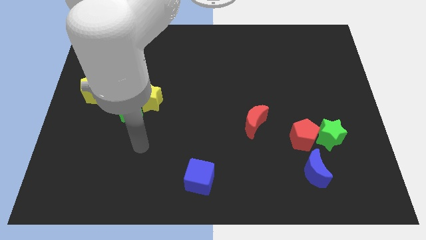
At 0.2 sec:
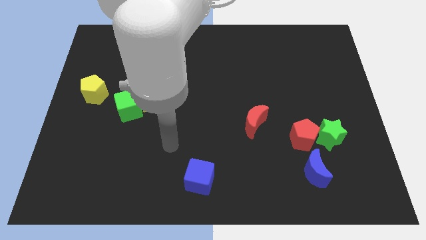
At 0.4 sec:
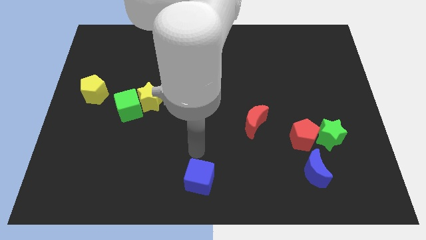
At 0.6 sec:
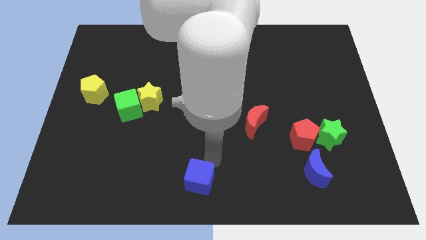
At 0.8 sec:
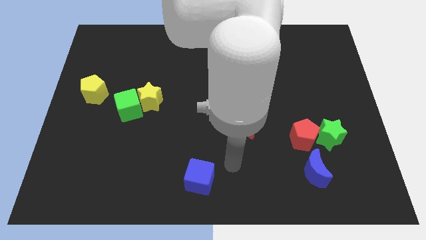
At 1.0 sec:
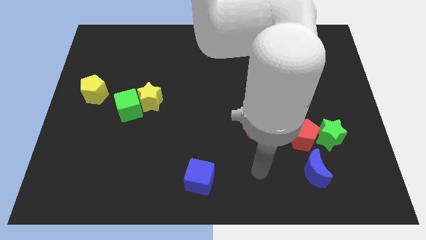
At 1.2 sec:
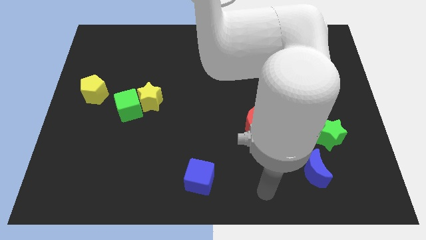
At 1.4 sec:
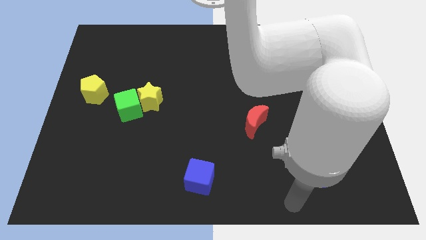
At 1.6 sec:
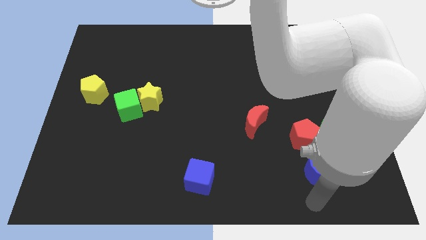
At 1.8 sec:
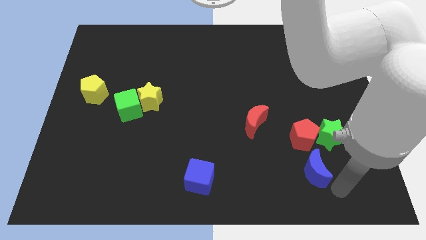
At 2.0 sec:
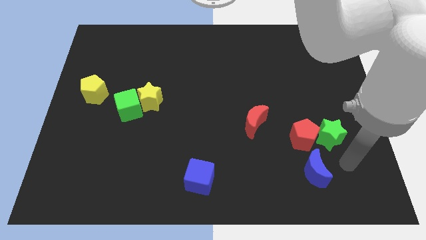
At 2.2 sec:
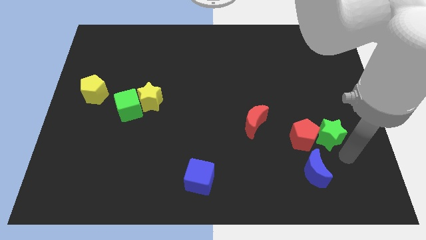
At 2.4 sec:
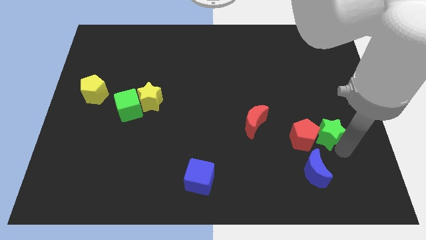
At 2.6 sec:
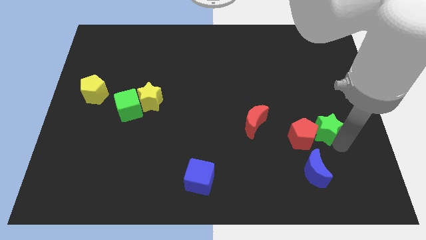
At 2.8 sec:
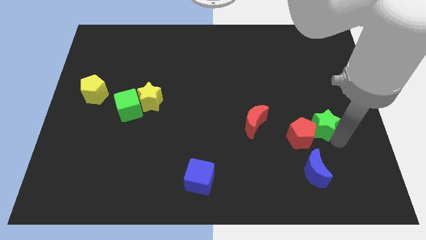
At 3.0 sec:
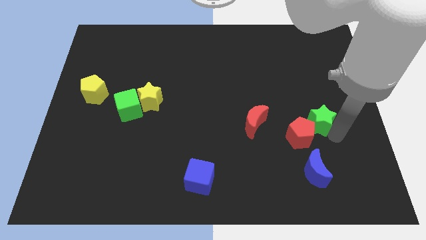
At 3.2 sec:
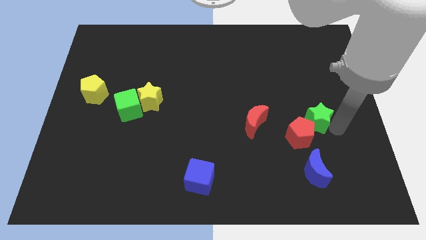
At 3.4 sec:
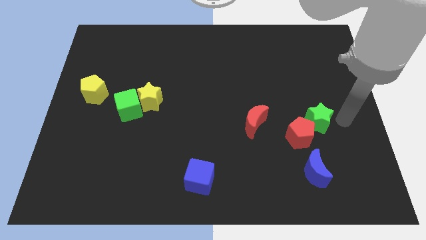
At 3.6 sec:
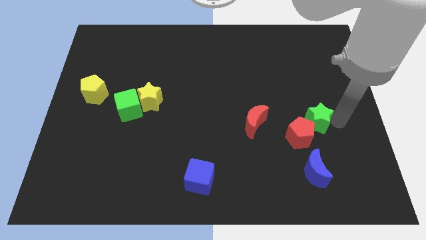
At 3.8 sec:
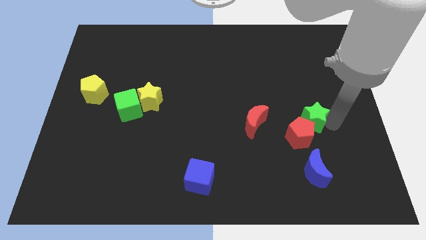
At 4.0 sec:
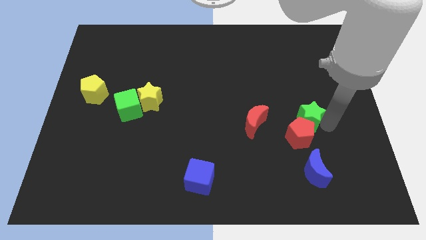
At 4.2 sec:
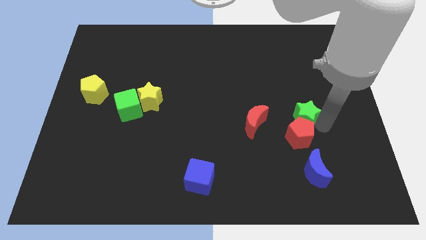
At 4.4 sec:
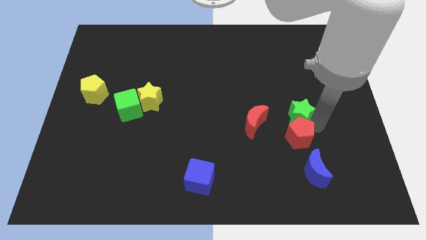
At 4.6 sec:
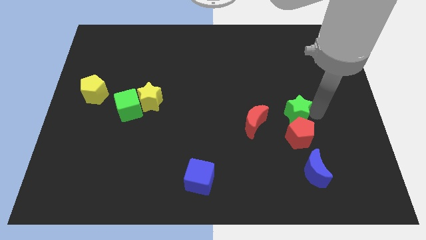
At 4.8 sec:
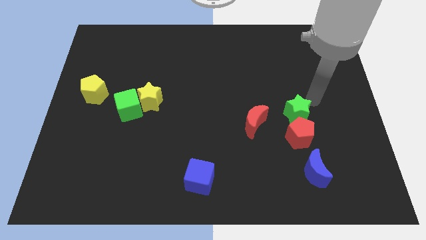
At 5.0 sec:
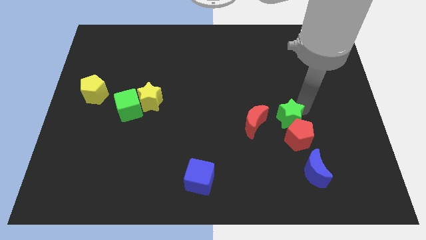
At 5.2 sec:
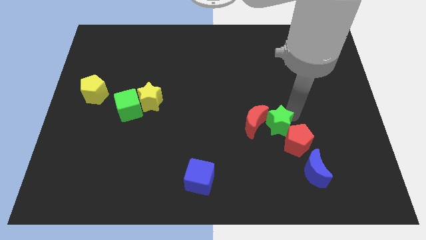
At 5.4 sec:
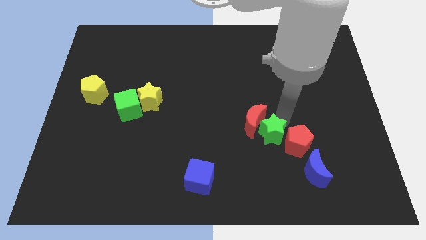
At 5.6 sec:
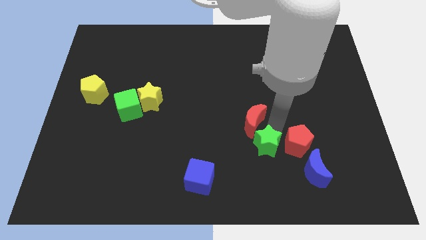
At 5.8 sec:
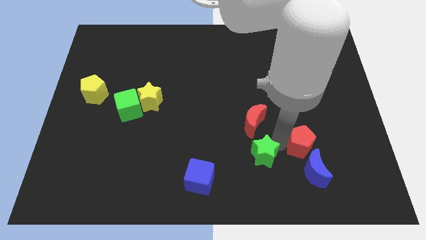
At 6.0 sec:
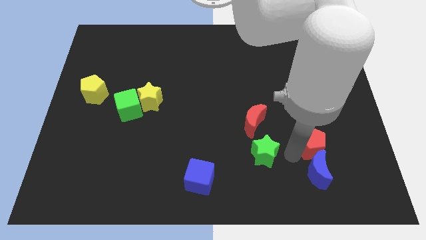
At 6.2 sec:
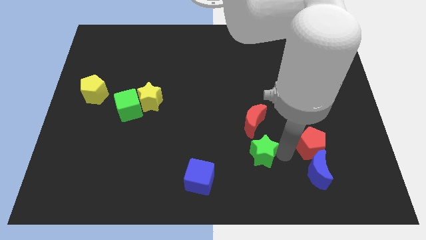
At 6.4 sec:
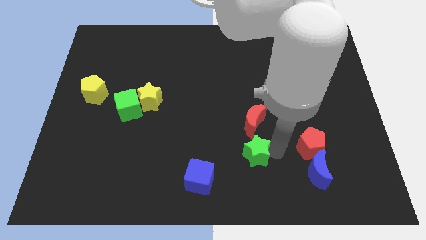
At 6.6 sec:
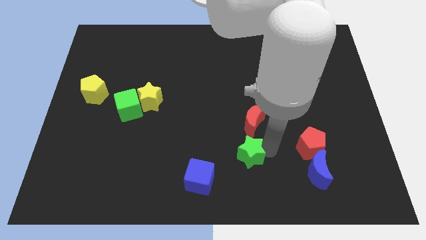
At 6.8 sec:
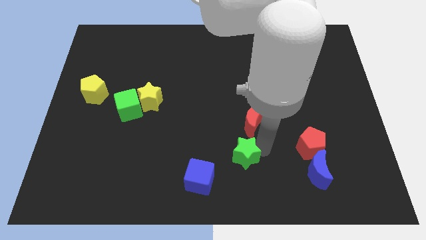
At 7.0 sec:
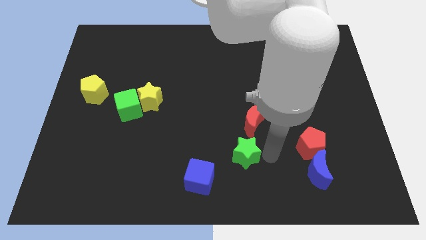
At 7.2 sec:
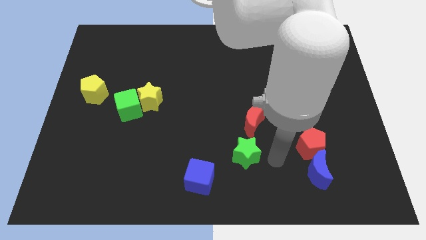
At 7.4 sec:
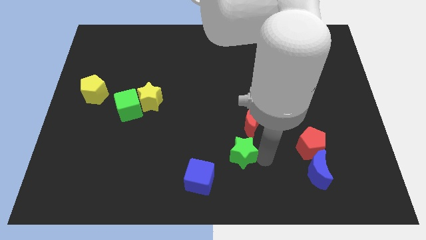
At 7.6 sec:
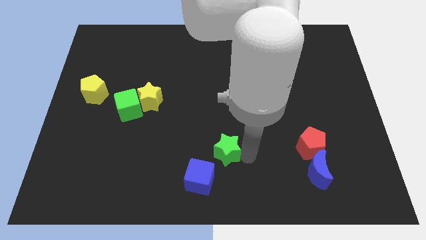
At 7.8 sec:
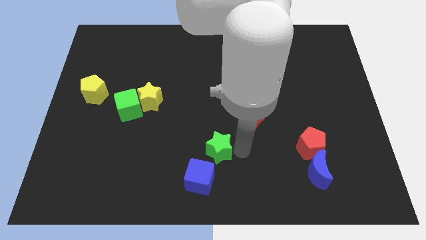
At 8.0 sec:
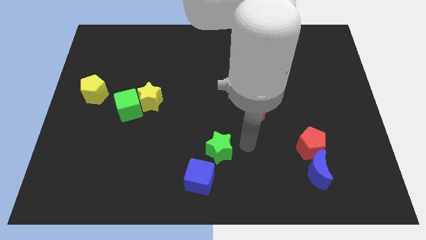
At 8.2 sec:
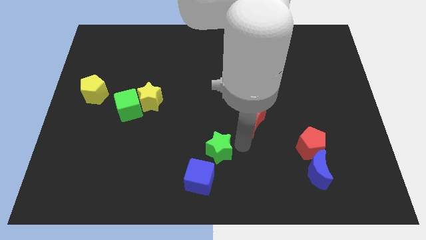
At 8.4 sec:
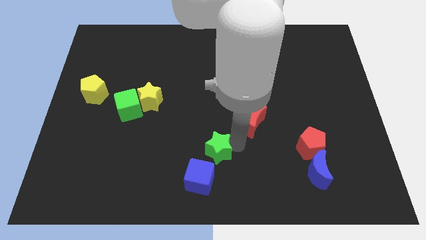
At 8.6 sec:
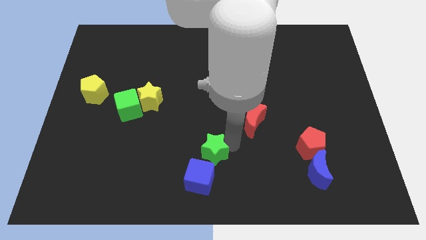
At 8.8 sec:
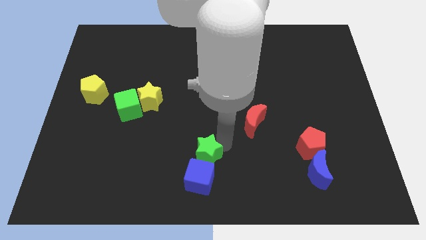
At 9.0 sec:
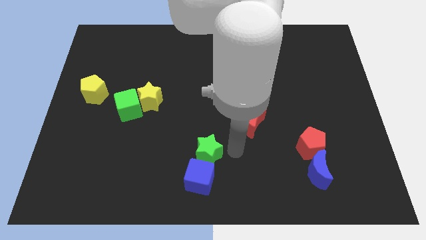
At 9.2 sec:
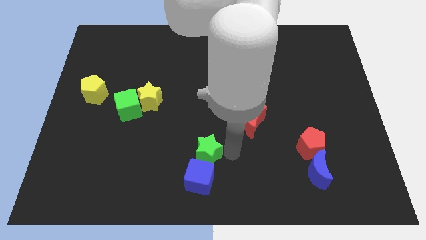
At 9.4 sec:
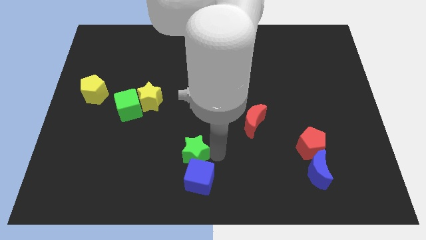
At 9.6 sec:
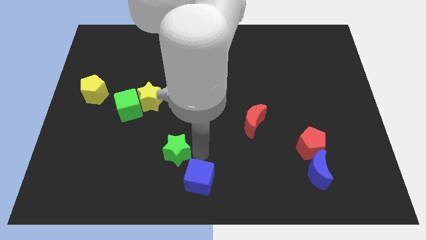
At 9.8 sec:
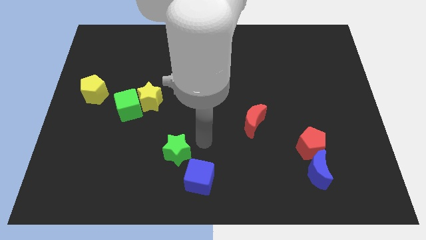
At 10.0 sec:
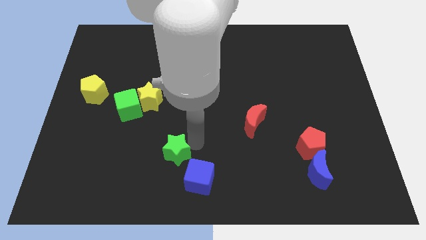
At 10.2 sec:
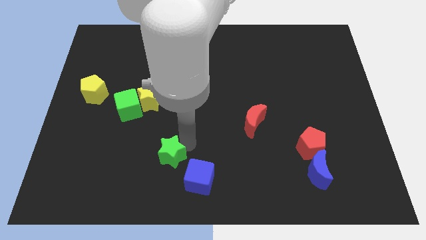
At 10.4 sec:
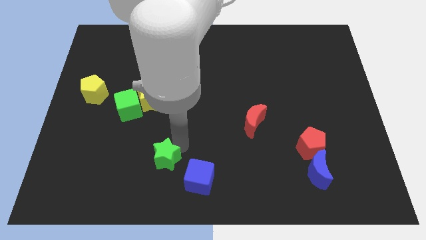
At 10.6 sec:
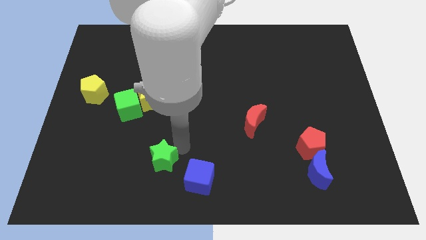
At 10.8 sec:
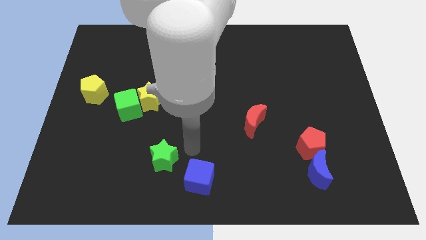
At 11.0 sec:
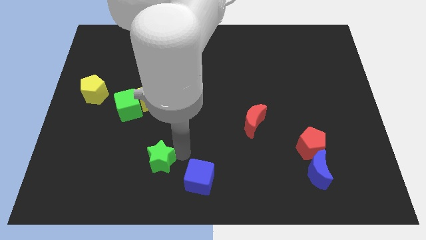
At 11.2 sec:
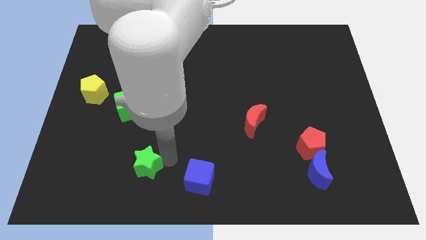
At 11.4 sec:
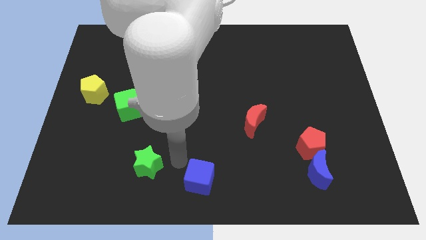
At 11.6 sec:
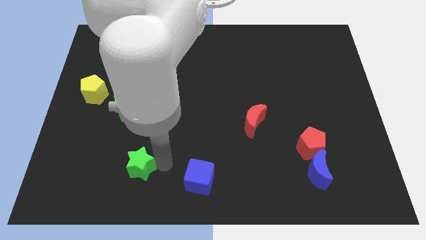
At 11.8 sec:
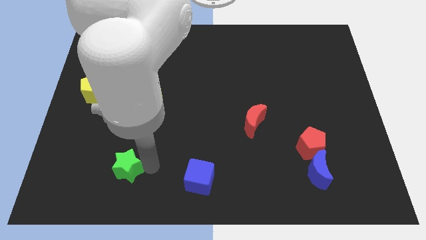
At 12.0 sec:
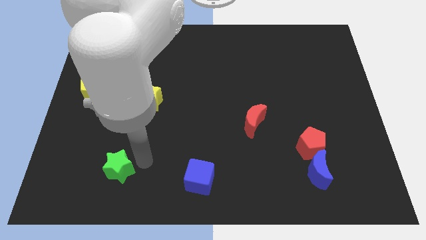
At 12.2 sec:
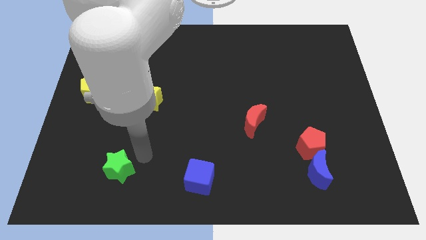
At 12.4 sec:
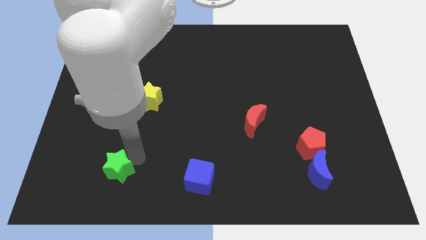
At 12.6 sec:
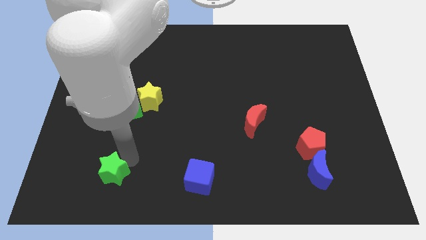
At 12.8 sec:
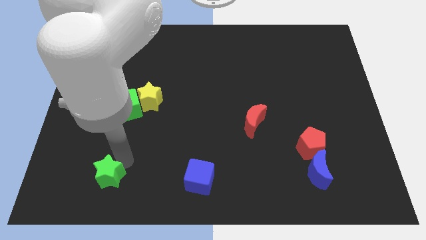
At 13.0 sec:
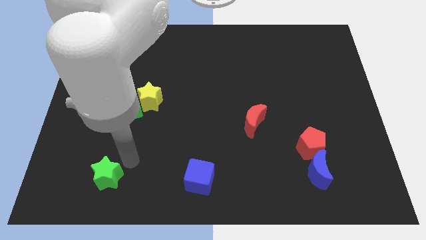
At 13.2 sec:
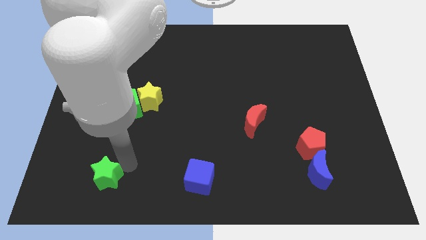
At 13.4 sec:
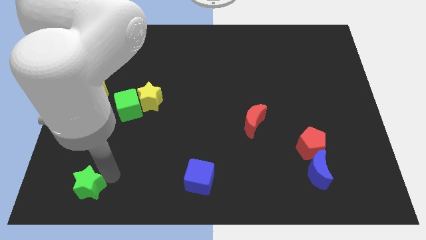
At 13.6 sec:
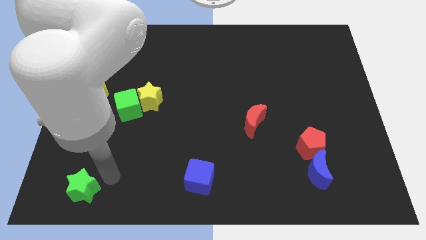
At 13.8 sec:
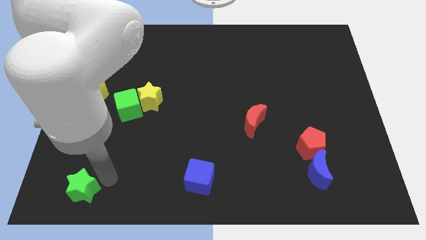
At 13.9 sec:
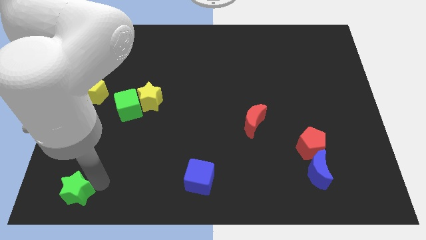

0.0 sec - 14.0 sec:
push the green star to the bottom left of the board

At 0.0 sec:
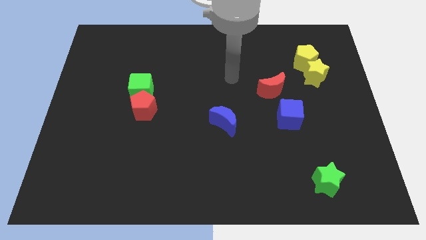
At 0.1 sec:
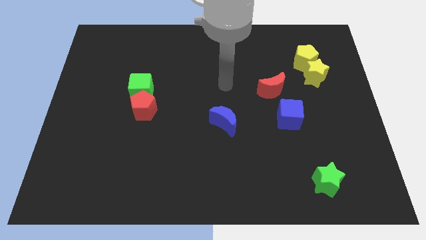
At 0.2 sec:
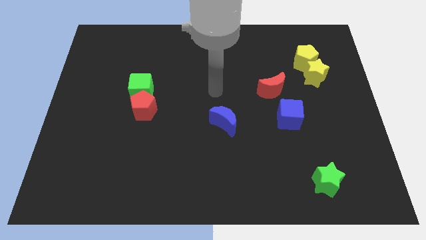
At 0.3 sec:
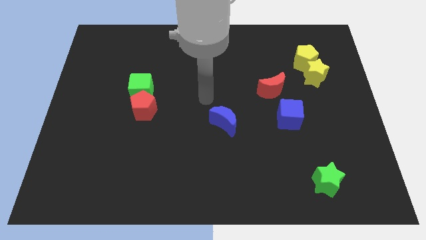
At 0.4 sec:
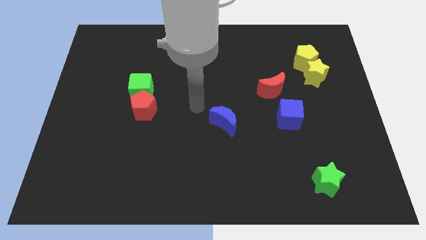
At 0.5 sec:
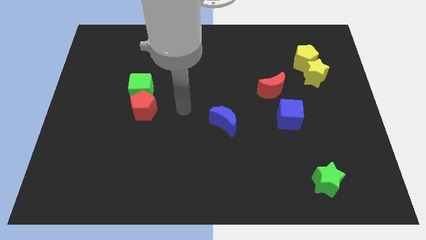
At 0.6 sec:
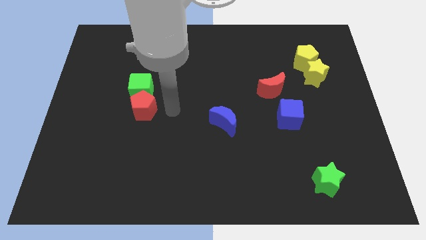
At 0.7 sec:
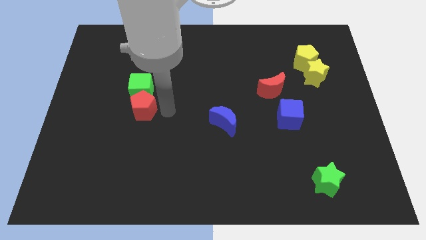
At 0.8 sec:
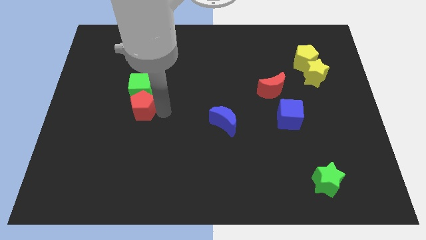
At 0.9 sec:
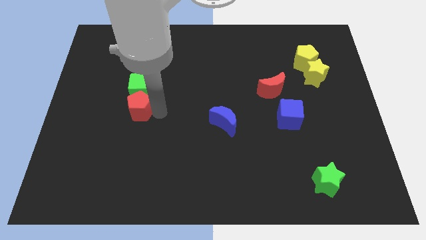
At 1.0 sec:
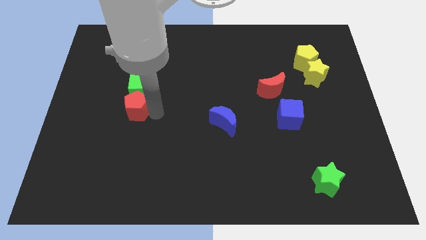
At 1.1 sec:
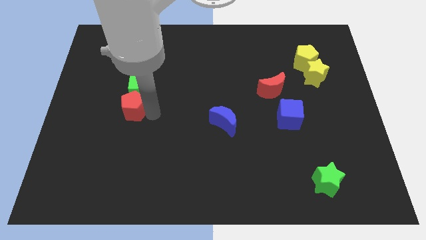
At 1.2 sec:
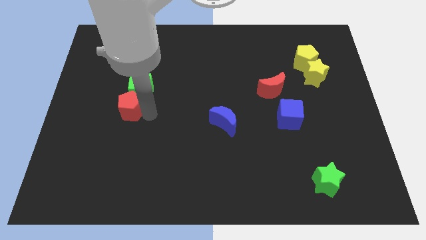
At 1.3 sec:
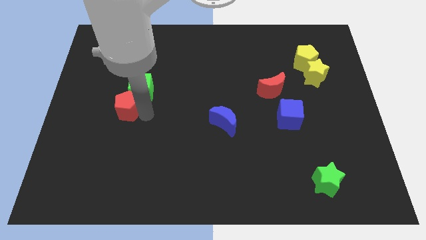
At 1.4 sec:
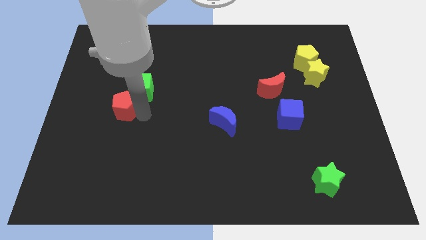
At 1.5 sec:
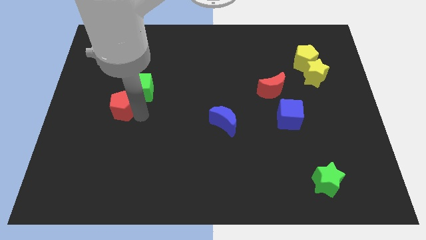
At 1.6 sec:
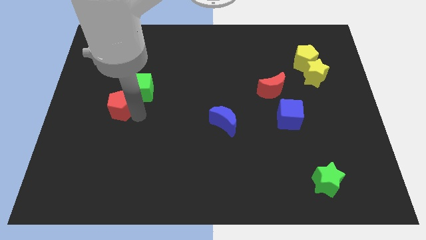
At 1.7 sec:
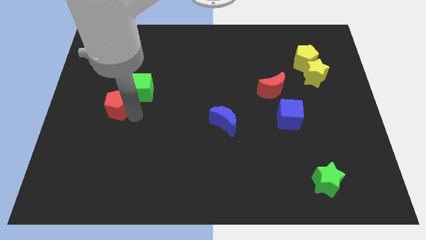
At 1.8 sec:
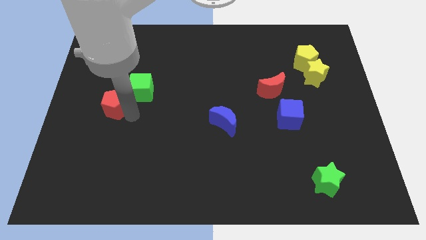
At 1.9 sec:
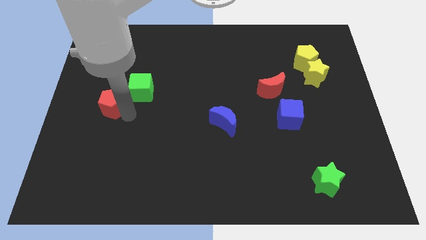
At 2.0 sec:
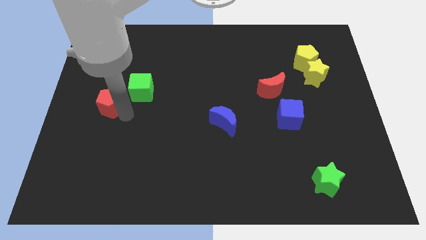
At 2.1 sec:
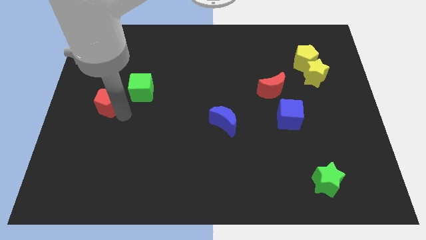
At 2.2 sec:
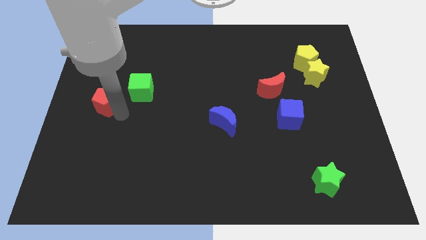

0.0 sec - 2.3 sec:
push the red pentagon to the left side
